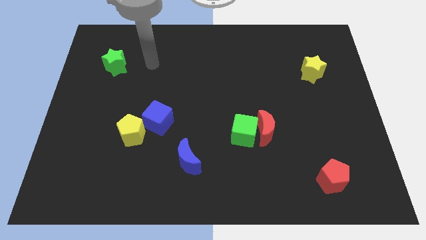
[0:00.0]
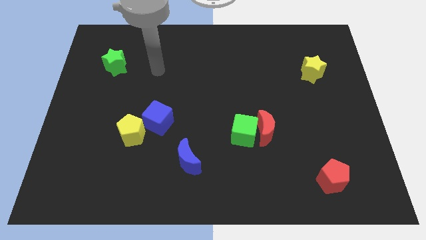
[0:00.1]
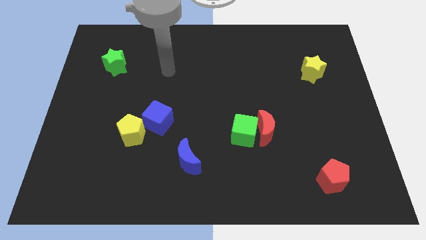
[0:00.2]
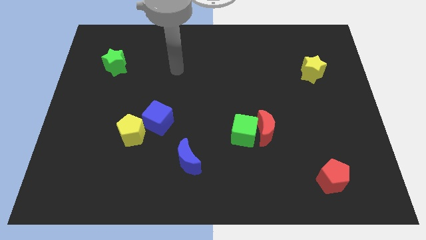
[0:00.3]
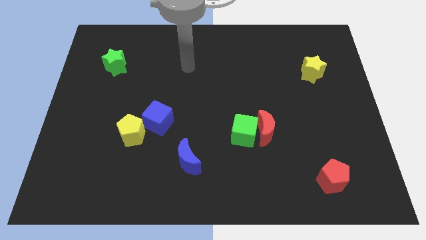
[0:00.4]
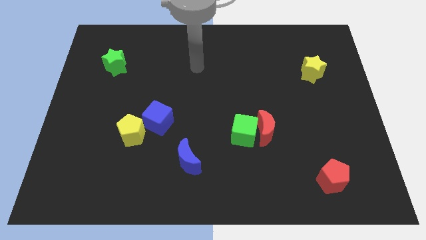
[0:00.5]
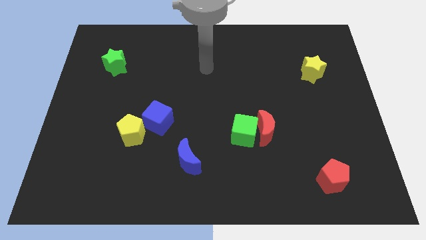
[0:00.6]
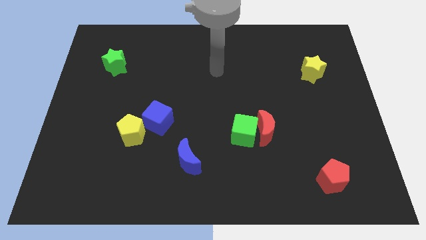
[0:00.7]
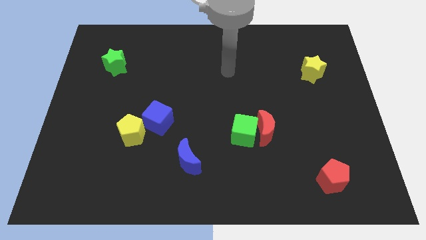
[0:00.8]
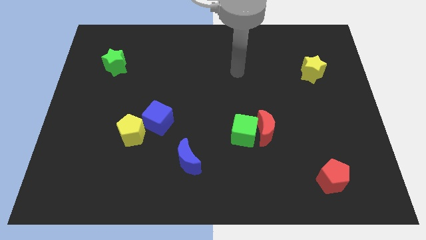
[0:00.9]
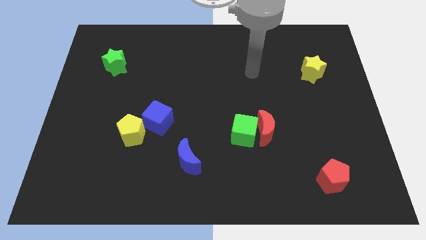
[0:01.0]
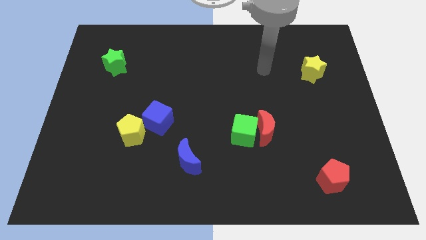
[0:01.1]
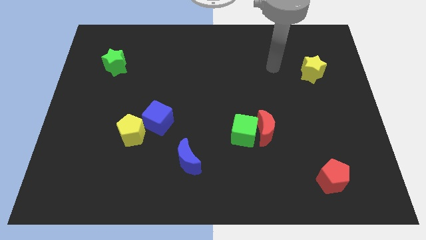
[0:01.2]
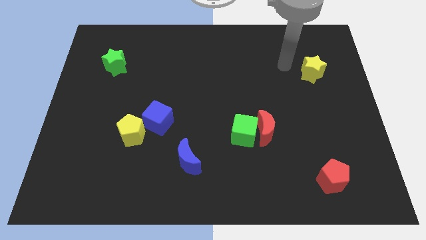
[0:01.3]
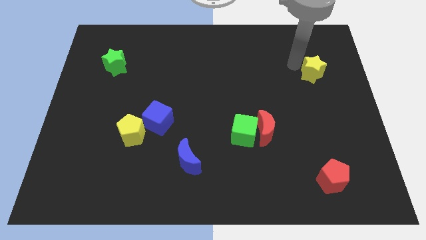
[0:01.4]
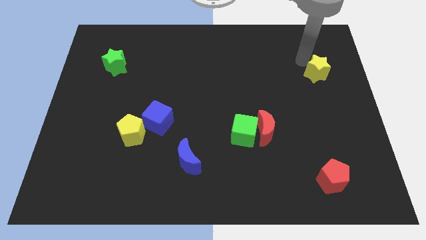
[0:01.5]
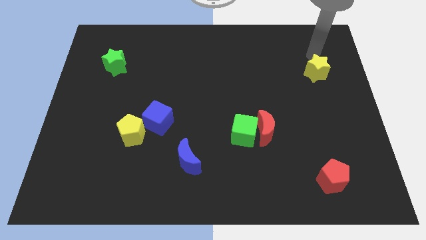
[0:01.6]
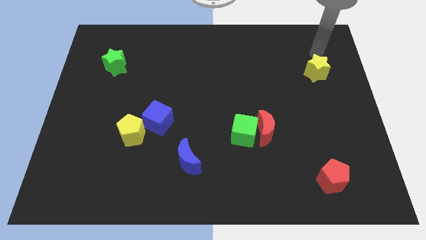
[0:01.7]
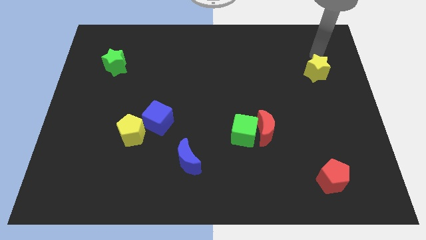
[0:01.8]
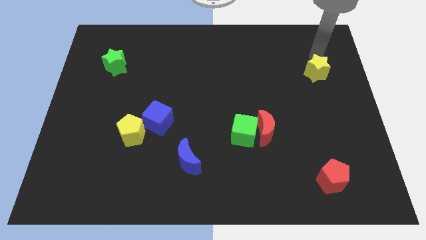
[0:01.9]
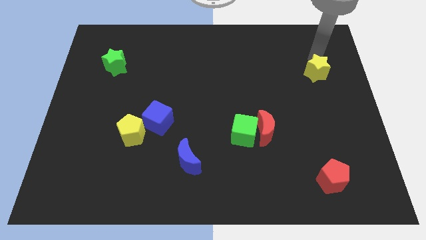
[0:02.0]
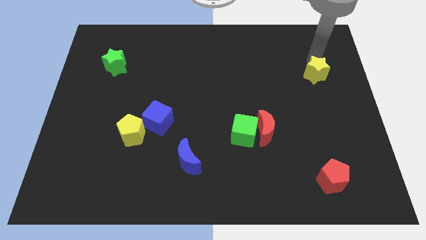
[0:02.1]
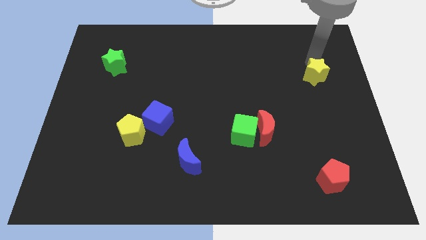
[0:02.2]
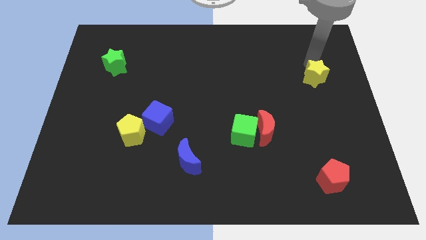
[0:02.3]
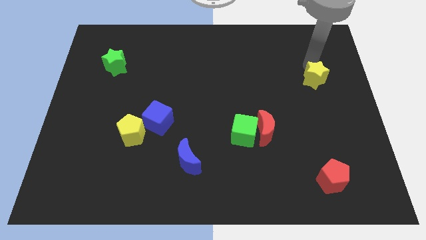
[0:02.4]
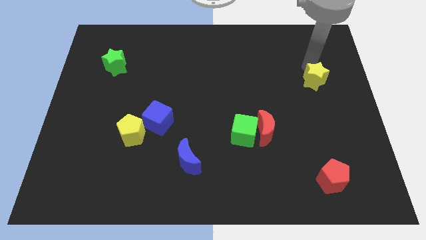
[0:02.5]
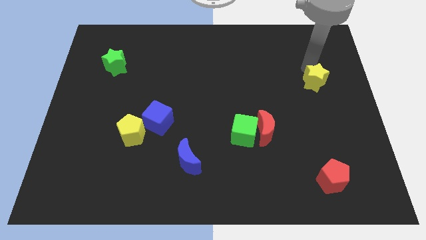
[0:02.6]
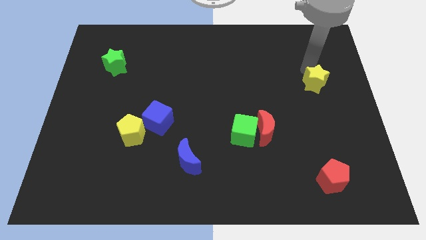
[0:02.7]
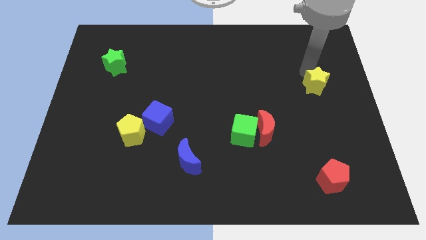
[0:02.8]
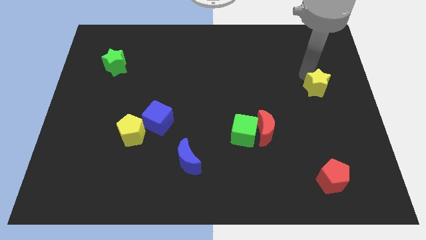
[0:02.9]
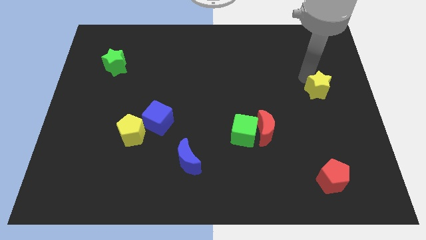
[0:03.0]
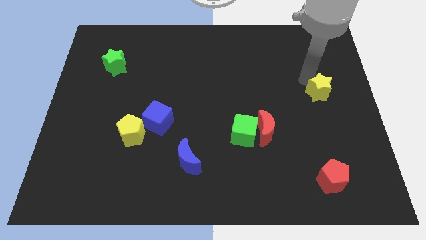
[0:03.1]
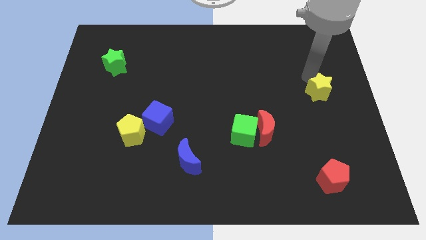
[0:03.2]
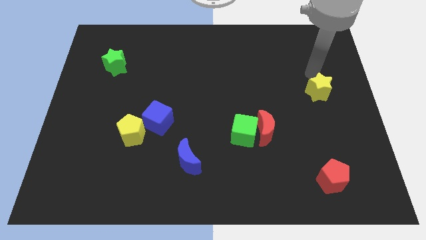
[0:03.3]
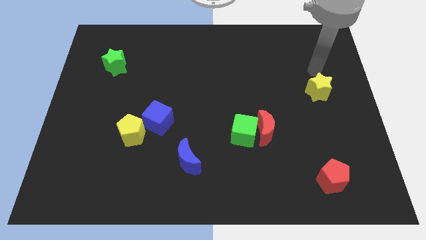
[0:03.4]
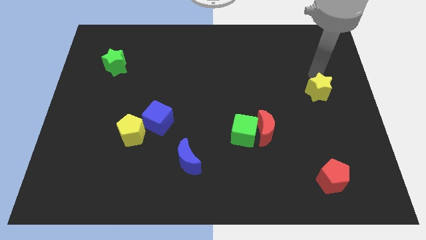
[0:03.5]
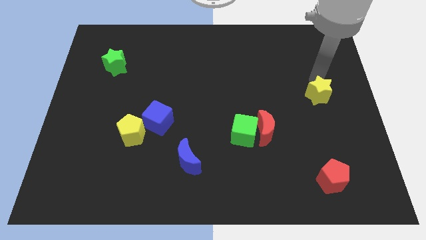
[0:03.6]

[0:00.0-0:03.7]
slightly slide the yellow star downwards

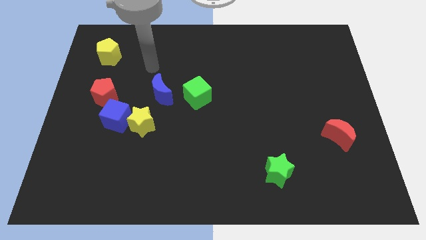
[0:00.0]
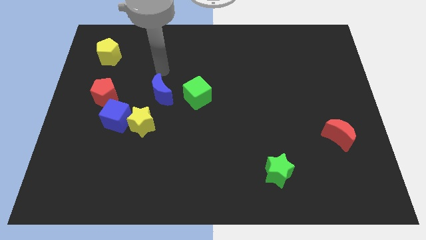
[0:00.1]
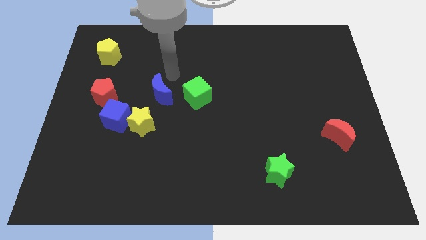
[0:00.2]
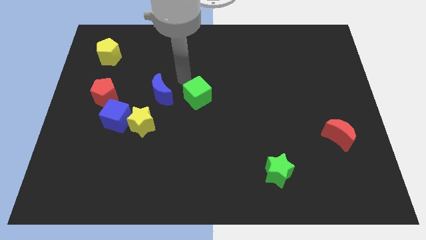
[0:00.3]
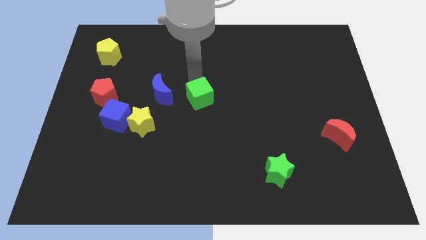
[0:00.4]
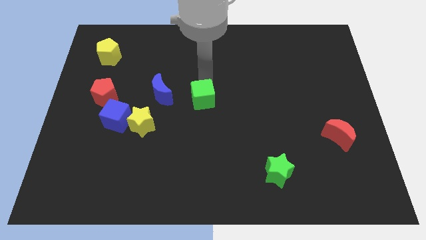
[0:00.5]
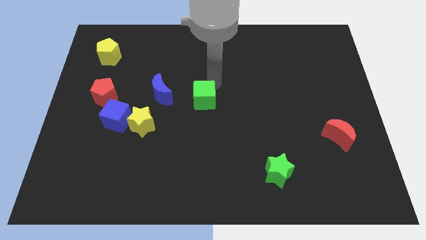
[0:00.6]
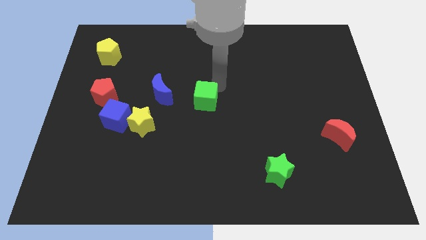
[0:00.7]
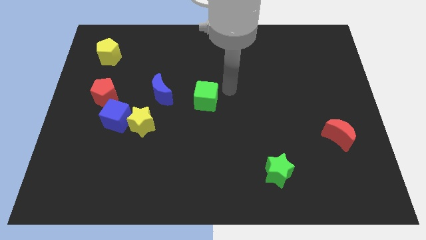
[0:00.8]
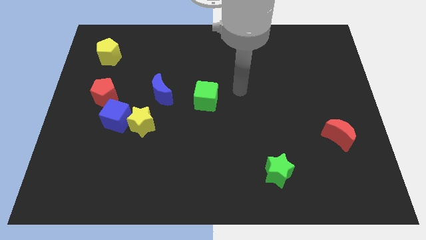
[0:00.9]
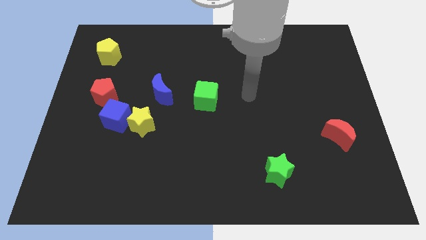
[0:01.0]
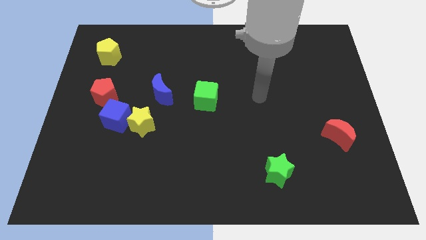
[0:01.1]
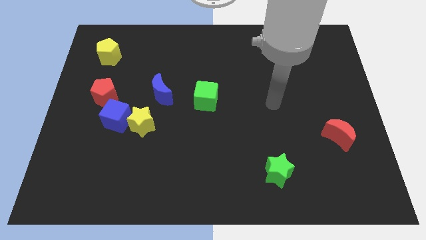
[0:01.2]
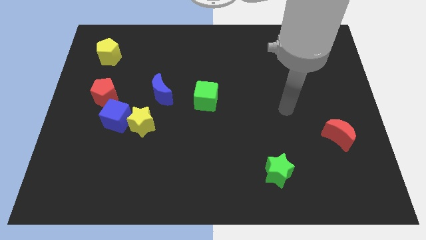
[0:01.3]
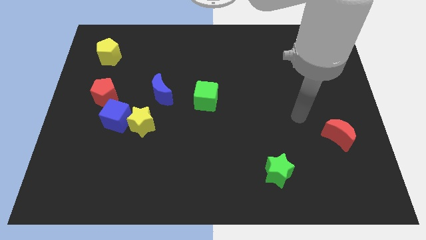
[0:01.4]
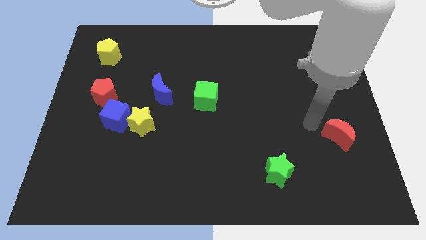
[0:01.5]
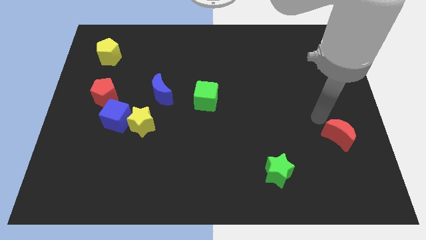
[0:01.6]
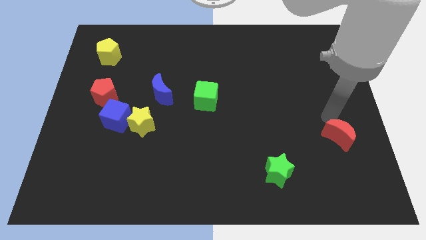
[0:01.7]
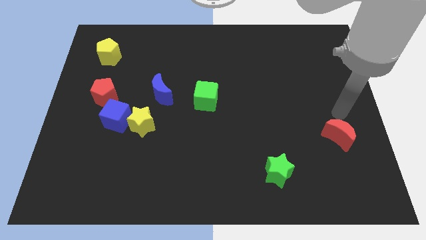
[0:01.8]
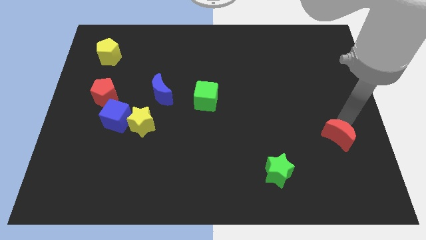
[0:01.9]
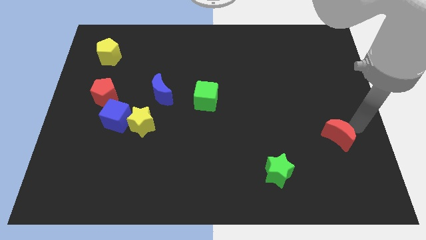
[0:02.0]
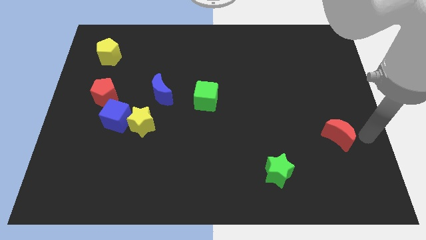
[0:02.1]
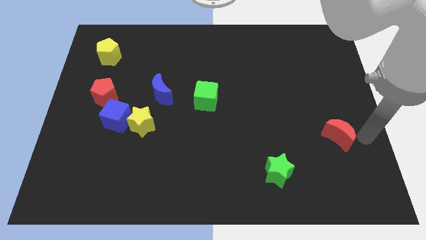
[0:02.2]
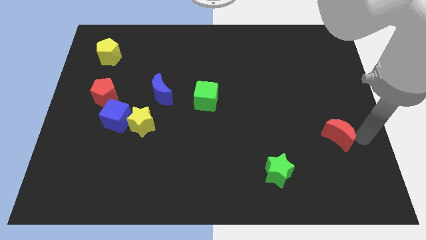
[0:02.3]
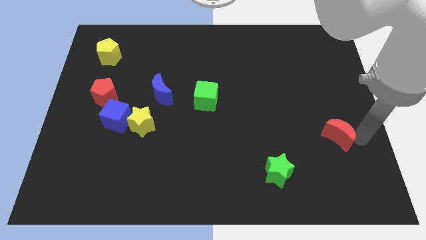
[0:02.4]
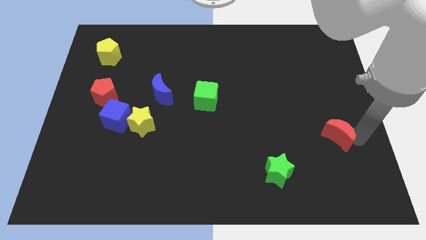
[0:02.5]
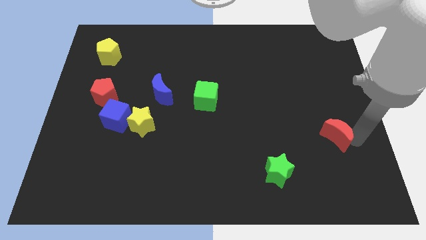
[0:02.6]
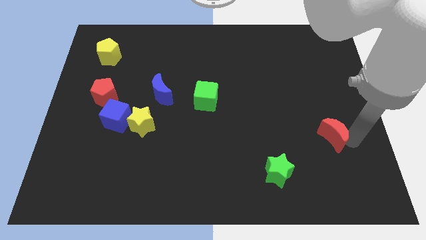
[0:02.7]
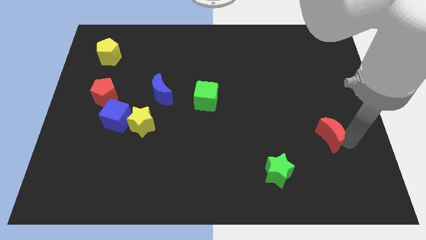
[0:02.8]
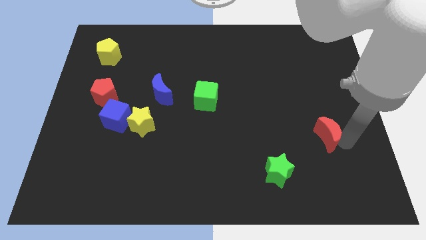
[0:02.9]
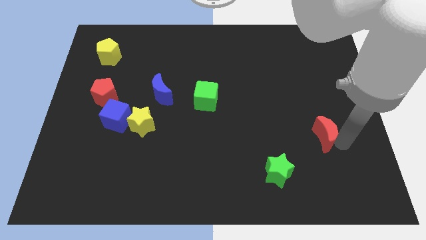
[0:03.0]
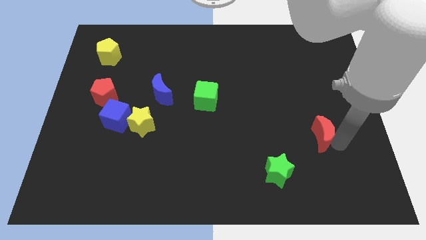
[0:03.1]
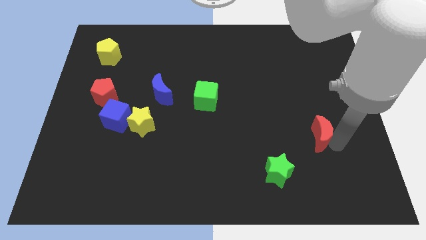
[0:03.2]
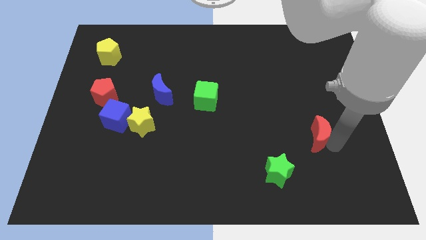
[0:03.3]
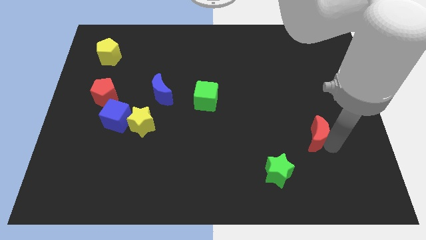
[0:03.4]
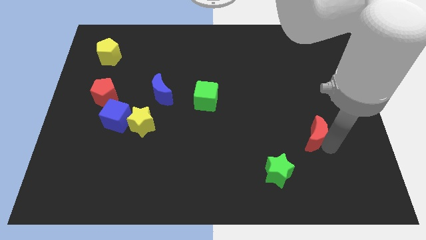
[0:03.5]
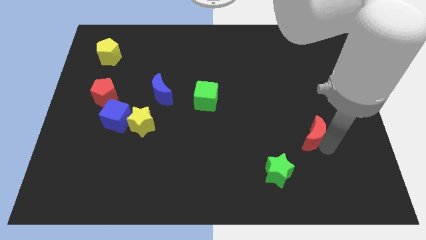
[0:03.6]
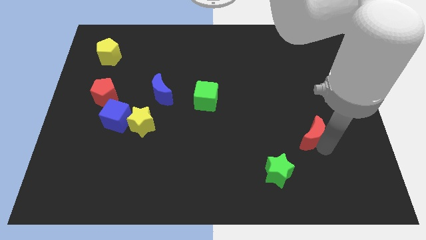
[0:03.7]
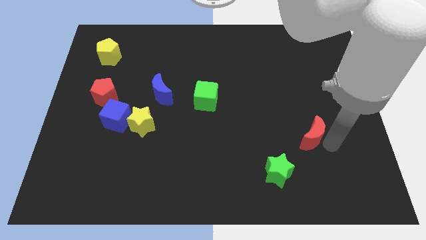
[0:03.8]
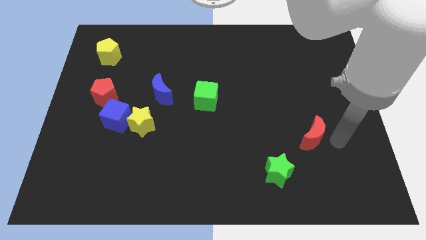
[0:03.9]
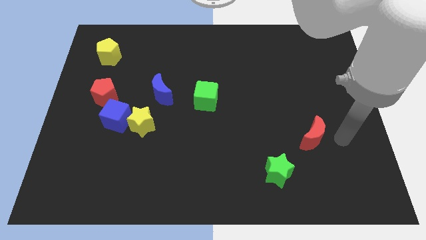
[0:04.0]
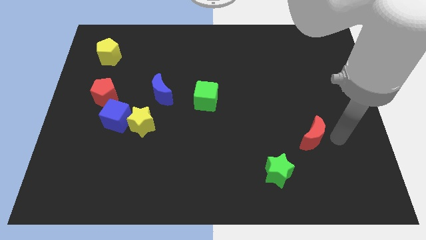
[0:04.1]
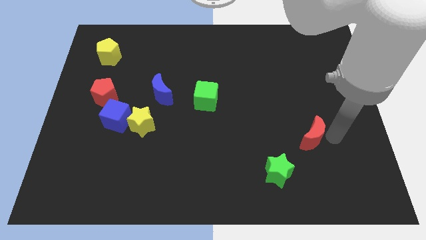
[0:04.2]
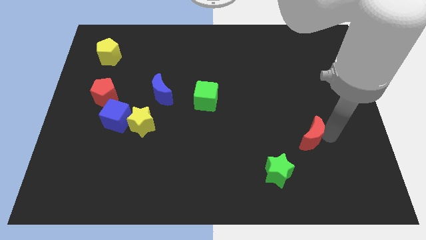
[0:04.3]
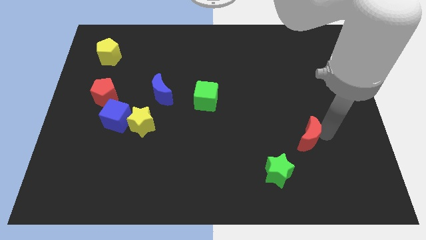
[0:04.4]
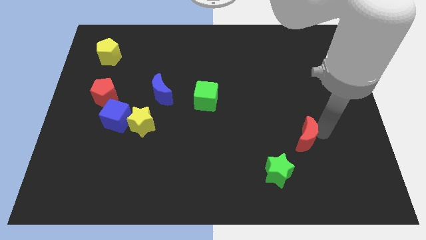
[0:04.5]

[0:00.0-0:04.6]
push the red moon to the left a bit
